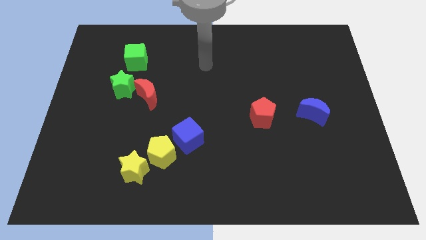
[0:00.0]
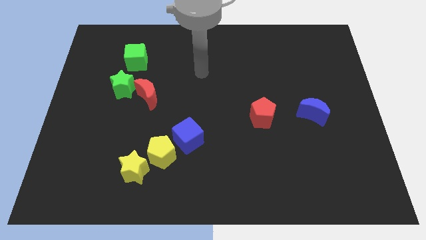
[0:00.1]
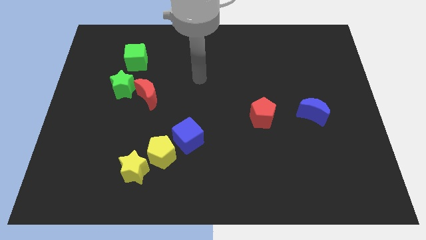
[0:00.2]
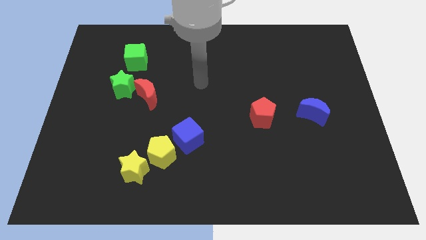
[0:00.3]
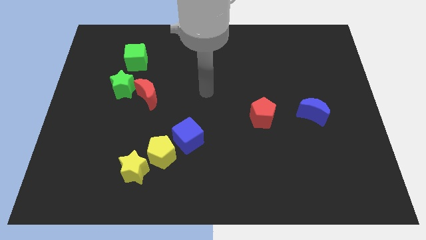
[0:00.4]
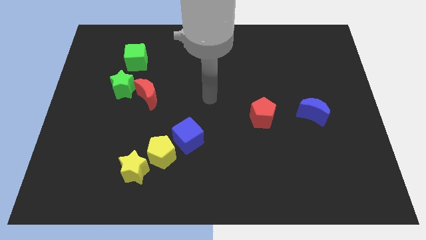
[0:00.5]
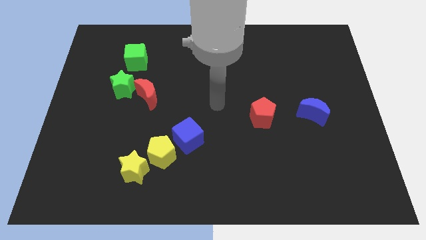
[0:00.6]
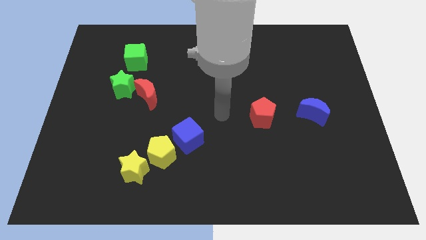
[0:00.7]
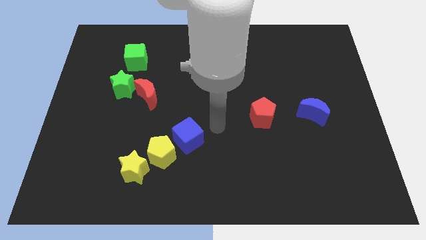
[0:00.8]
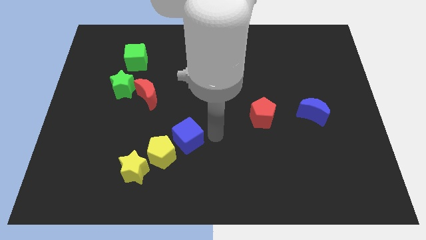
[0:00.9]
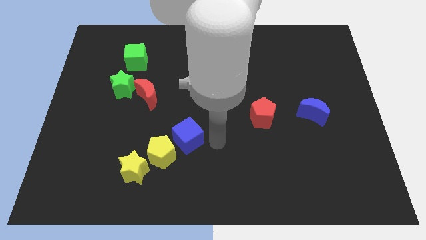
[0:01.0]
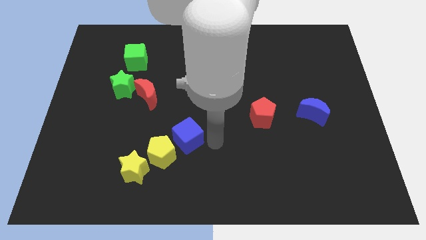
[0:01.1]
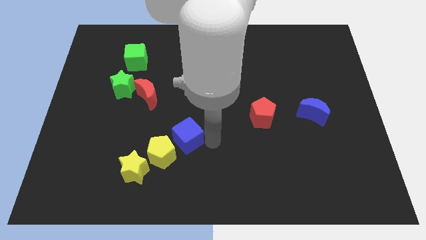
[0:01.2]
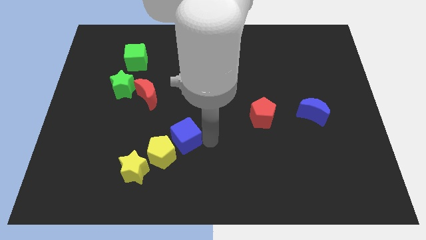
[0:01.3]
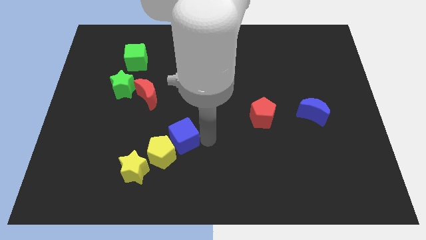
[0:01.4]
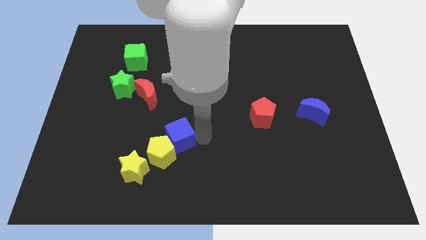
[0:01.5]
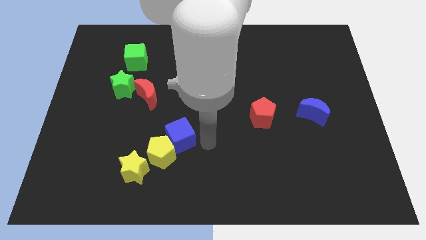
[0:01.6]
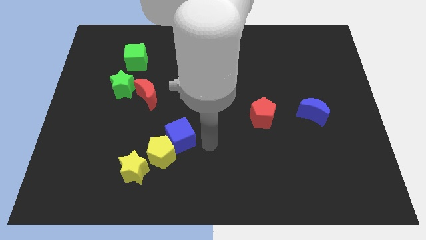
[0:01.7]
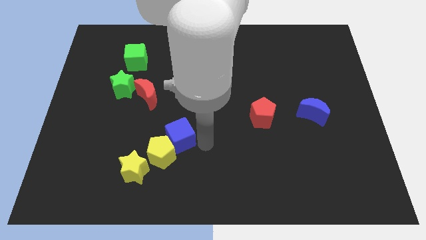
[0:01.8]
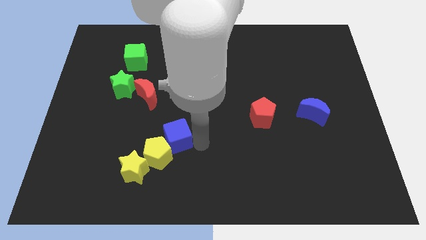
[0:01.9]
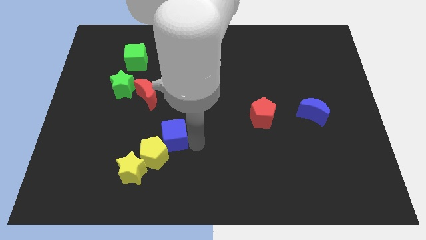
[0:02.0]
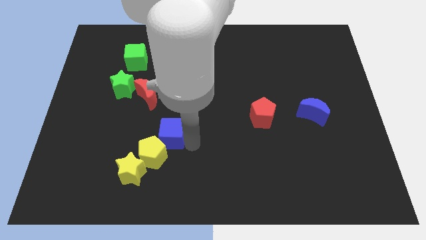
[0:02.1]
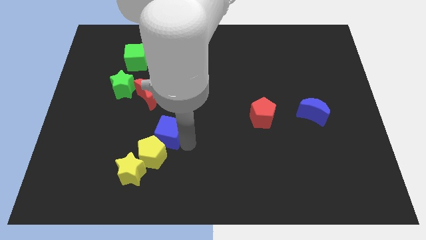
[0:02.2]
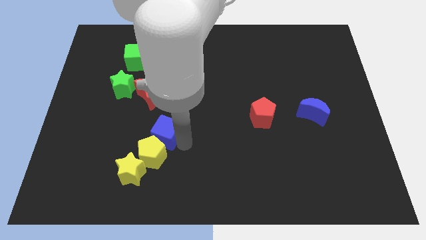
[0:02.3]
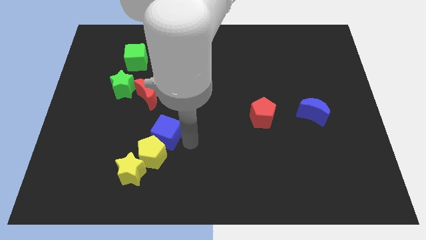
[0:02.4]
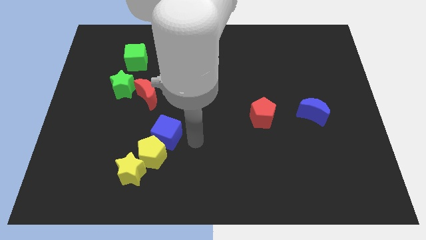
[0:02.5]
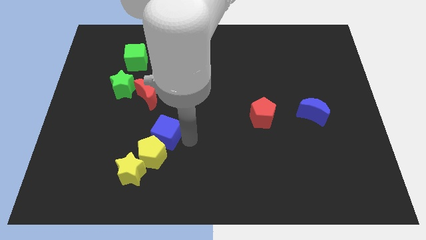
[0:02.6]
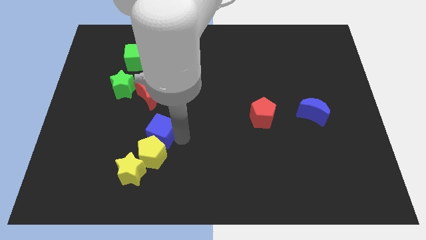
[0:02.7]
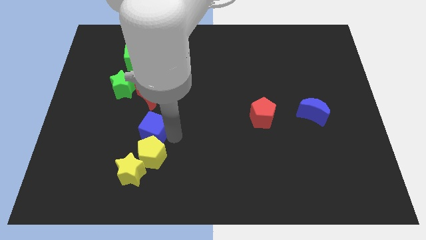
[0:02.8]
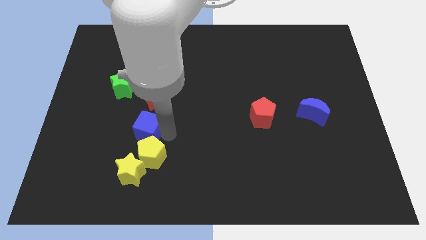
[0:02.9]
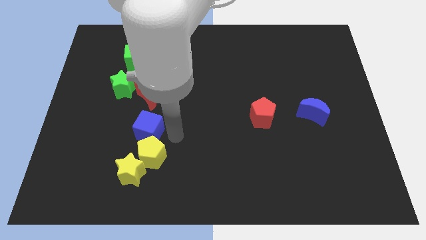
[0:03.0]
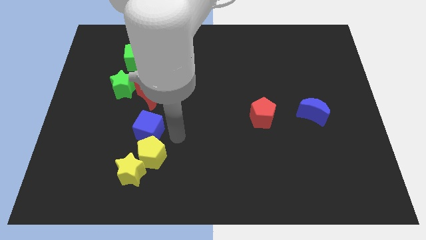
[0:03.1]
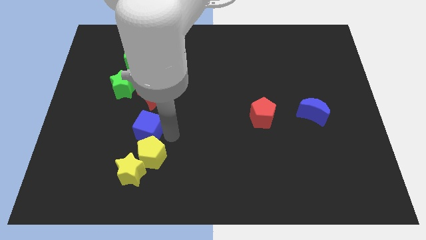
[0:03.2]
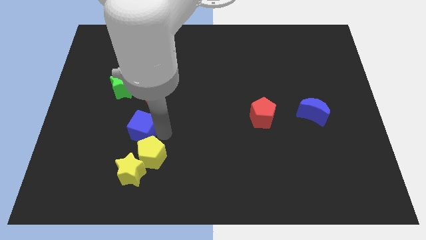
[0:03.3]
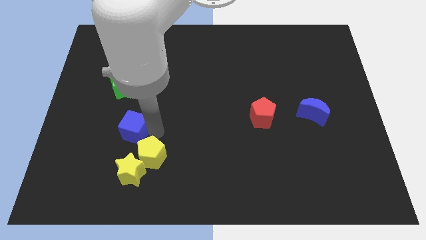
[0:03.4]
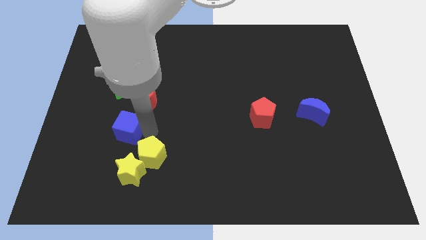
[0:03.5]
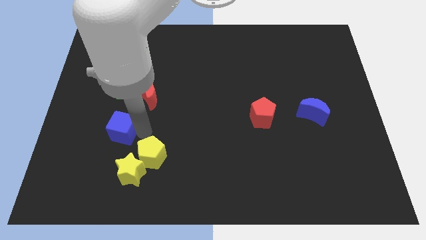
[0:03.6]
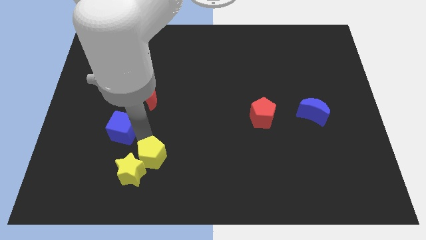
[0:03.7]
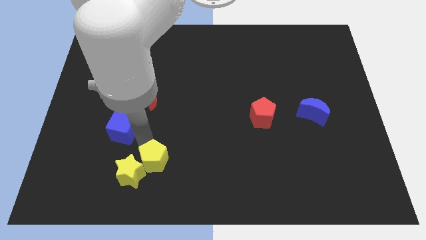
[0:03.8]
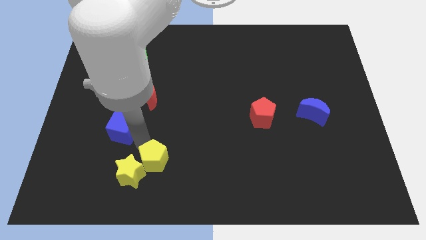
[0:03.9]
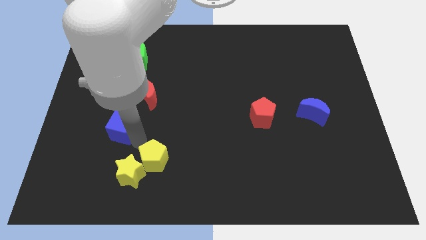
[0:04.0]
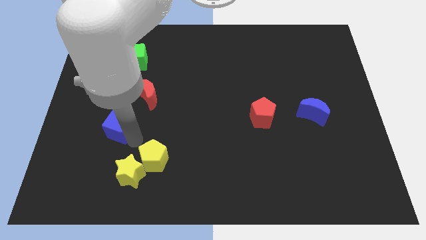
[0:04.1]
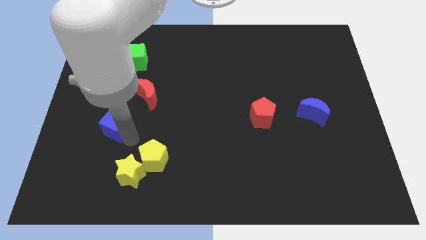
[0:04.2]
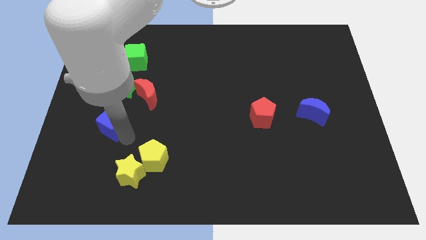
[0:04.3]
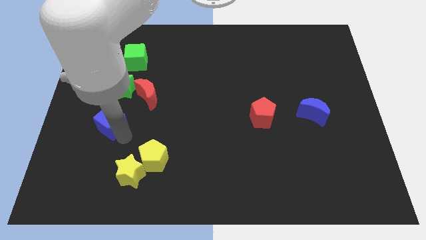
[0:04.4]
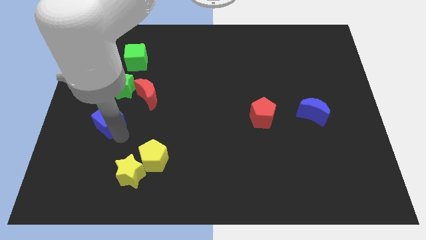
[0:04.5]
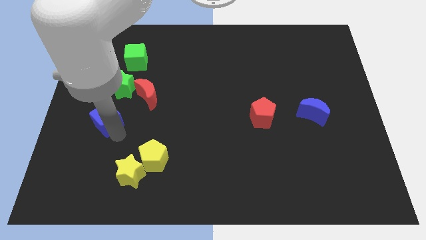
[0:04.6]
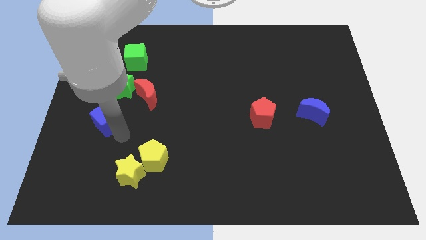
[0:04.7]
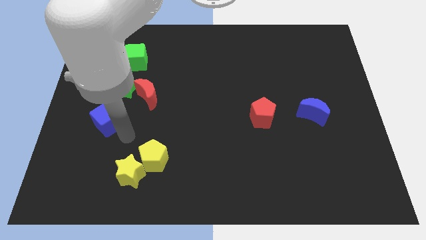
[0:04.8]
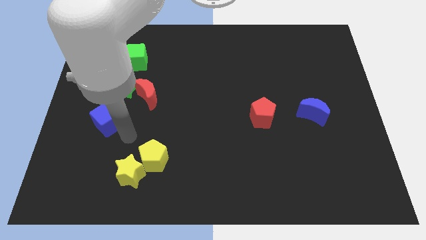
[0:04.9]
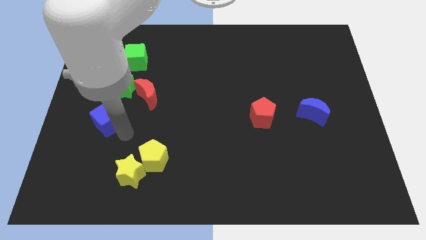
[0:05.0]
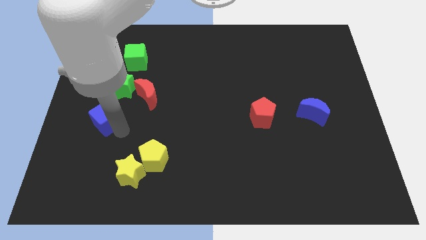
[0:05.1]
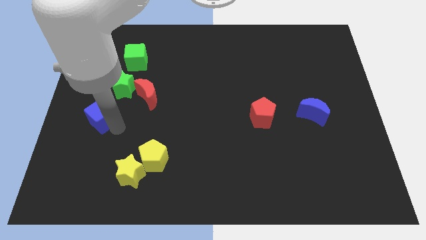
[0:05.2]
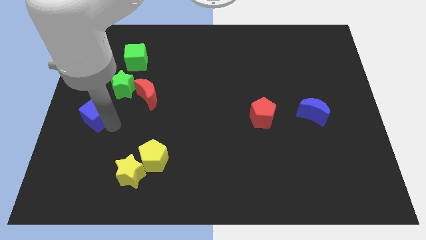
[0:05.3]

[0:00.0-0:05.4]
slide the blue cube to the center left

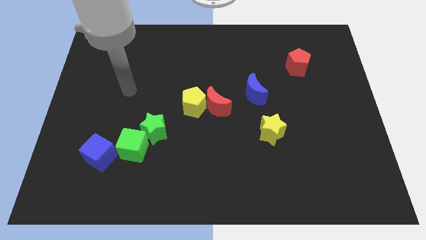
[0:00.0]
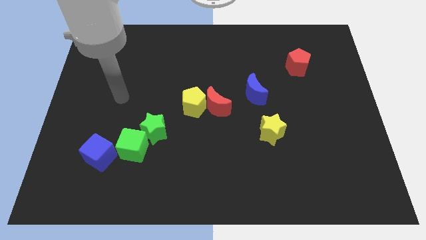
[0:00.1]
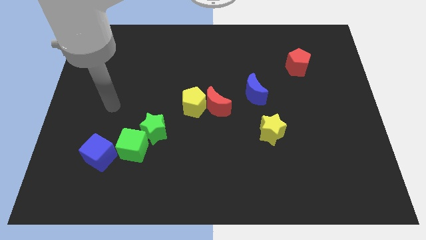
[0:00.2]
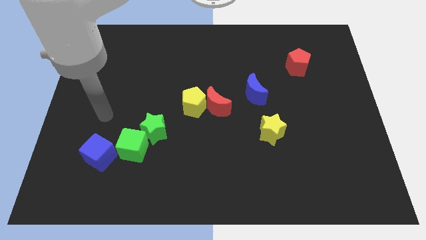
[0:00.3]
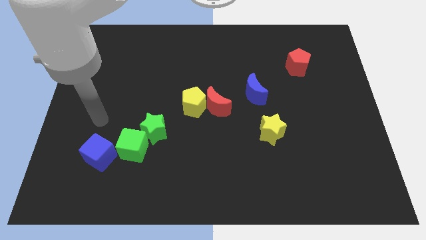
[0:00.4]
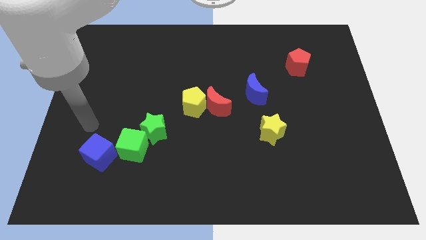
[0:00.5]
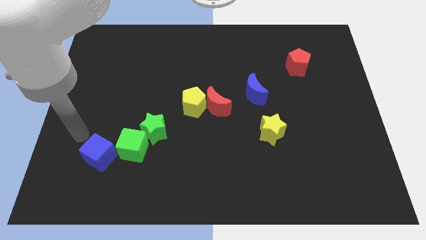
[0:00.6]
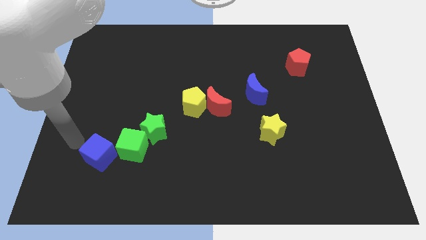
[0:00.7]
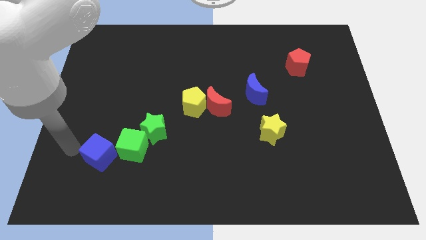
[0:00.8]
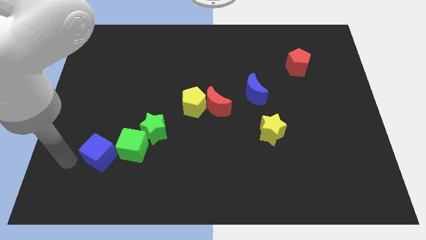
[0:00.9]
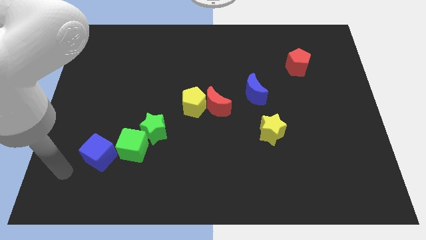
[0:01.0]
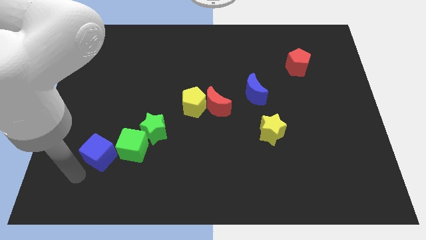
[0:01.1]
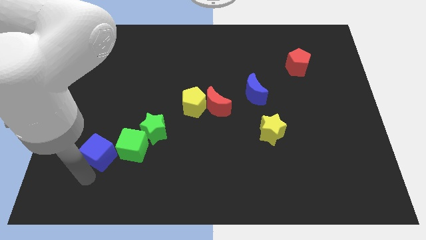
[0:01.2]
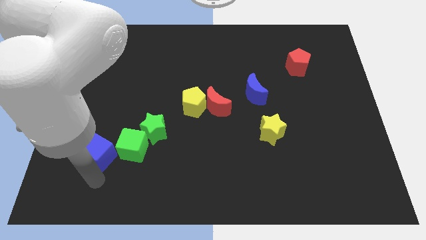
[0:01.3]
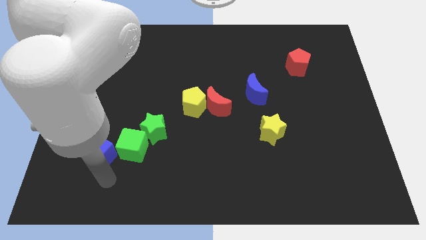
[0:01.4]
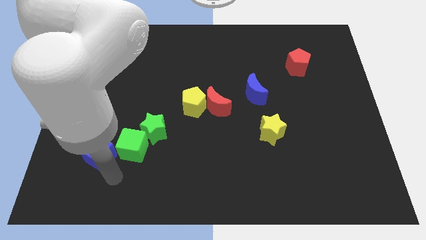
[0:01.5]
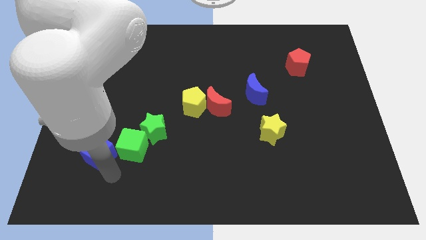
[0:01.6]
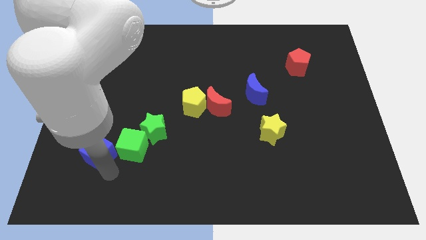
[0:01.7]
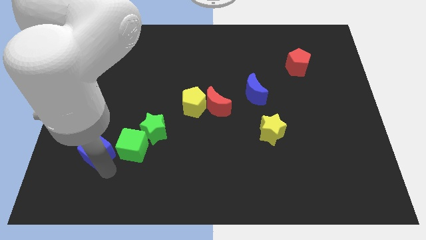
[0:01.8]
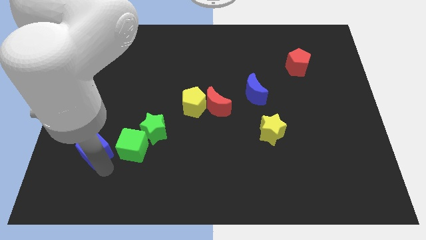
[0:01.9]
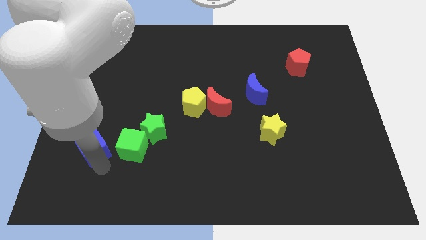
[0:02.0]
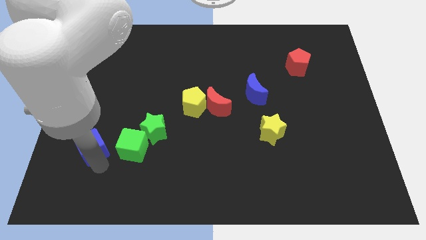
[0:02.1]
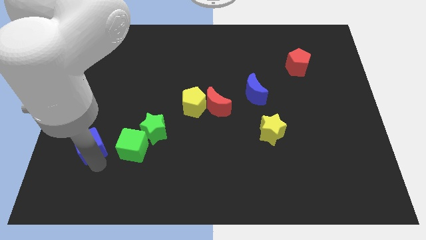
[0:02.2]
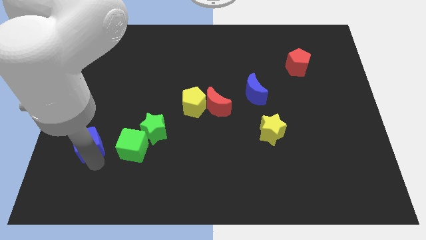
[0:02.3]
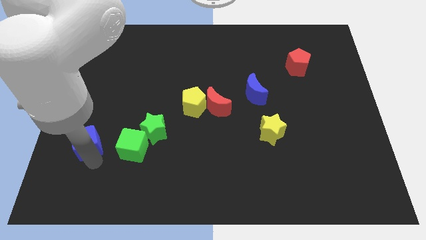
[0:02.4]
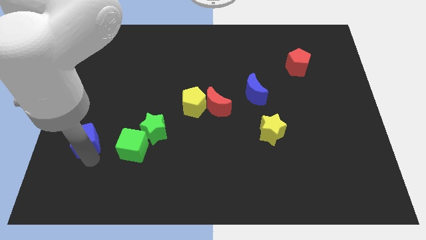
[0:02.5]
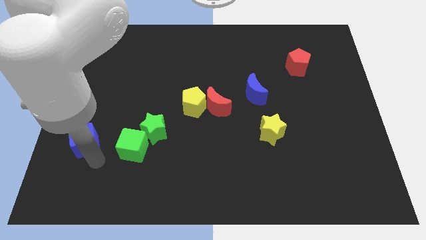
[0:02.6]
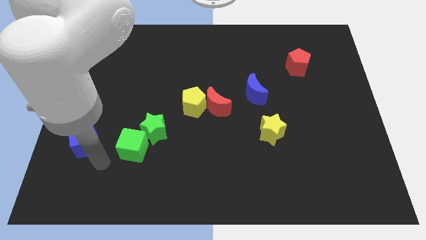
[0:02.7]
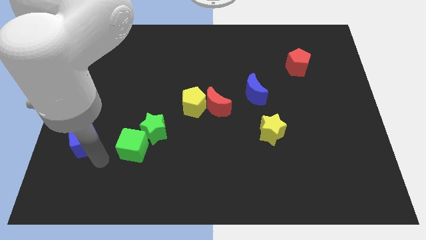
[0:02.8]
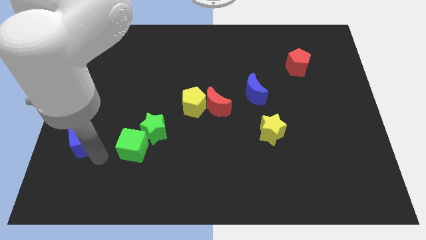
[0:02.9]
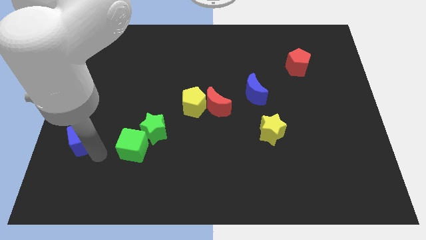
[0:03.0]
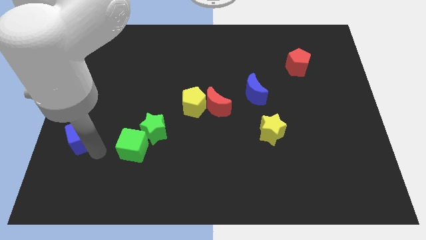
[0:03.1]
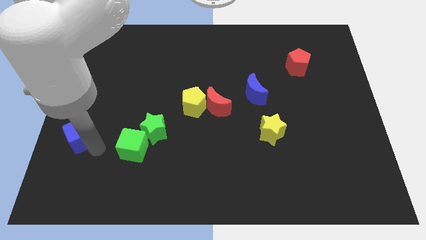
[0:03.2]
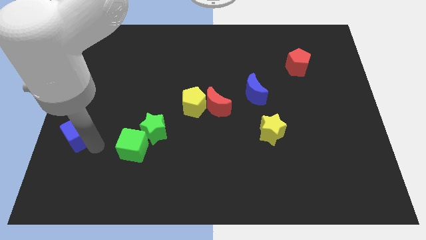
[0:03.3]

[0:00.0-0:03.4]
move the blue cube to the center left
